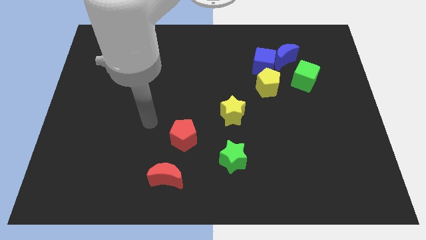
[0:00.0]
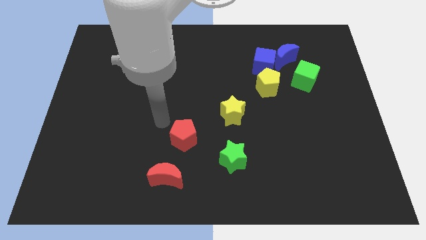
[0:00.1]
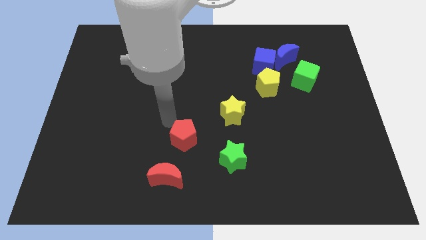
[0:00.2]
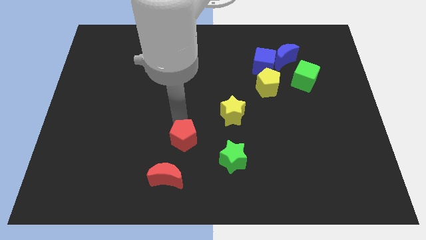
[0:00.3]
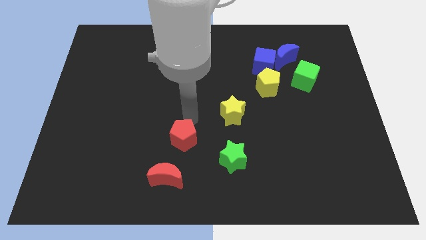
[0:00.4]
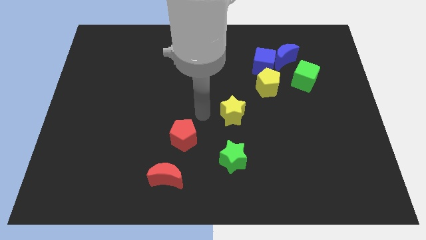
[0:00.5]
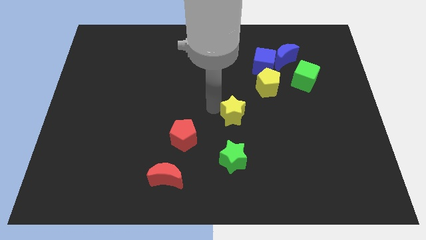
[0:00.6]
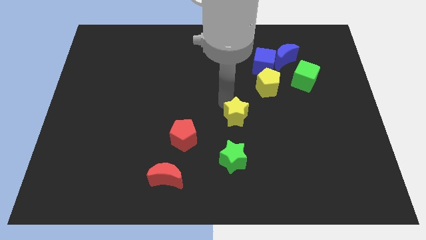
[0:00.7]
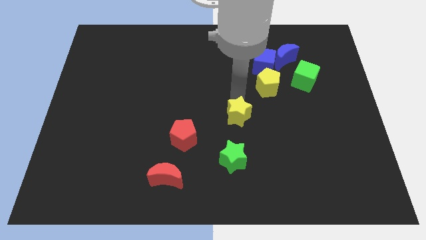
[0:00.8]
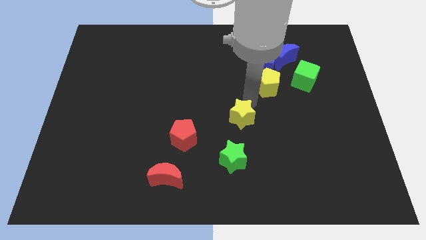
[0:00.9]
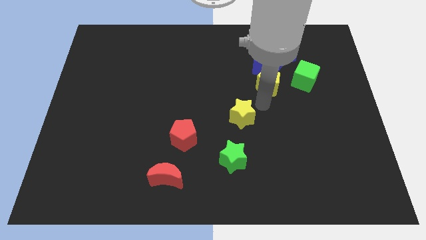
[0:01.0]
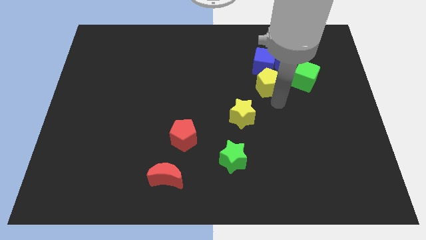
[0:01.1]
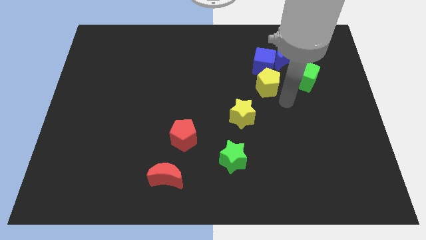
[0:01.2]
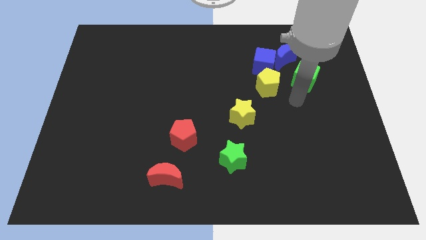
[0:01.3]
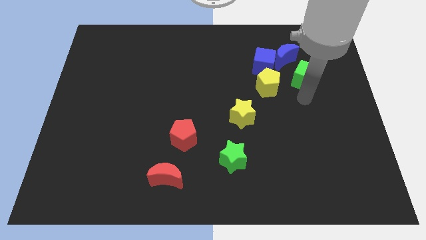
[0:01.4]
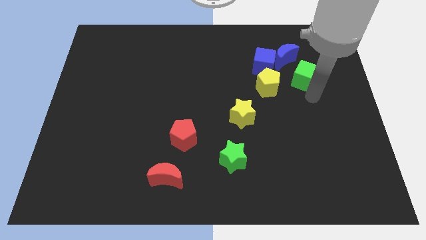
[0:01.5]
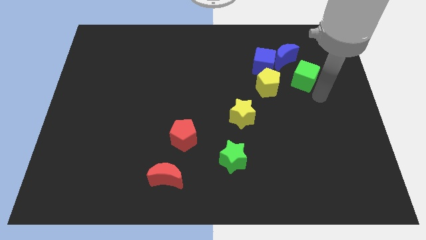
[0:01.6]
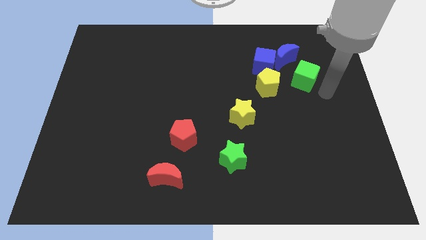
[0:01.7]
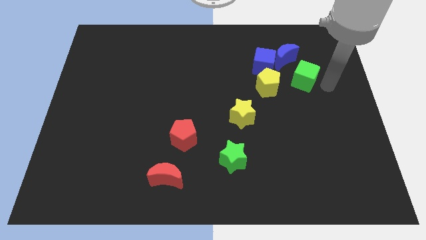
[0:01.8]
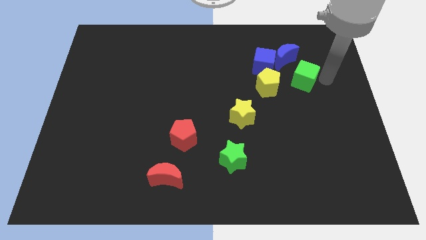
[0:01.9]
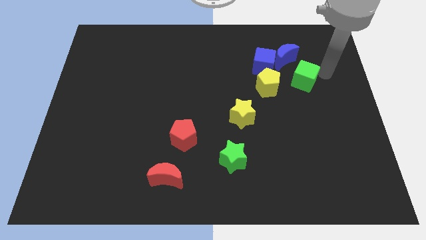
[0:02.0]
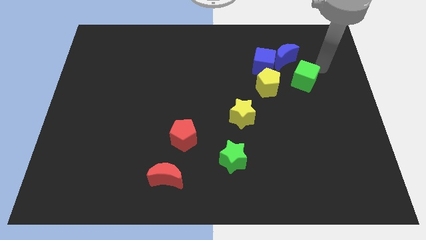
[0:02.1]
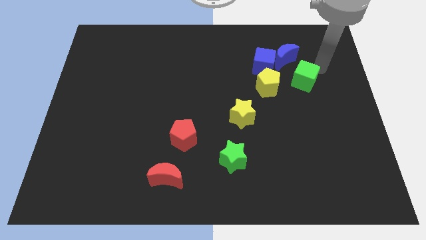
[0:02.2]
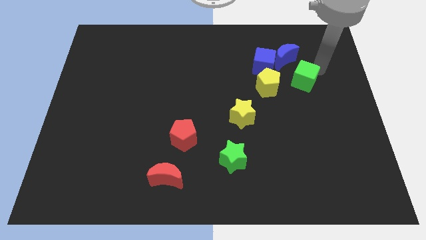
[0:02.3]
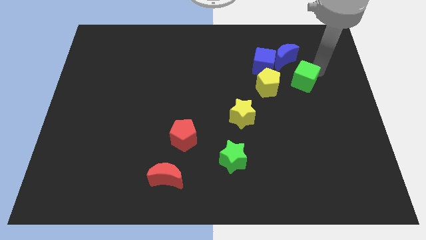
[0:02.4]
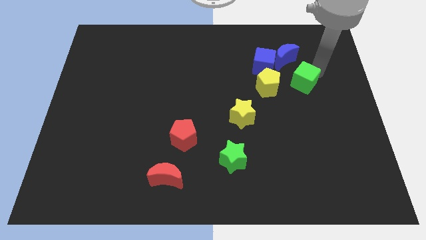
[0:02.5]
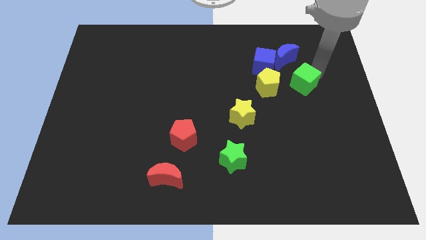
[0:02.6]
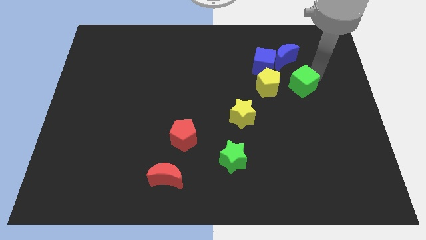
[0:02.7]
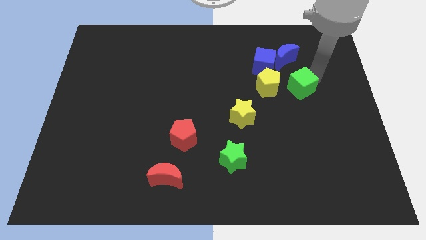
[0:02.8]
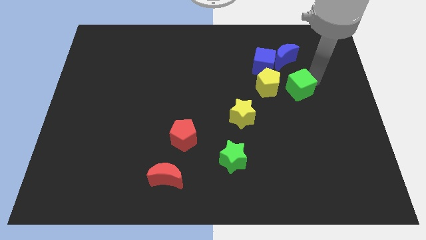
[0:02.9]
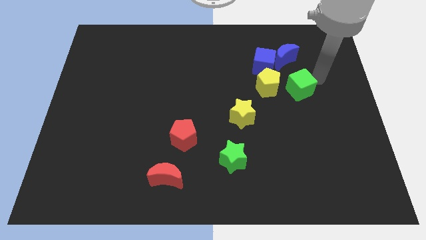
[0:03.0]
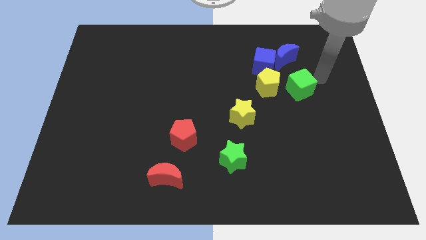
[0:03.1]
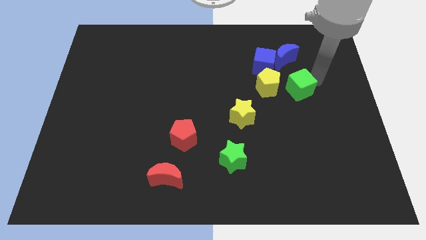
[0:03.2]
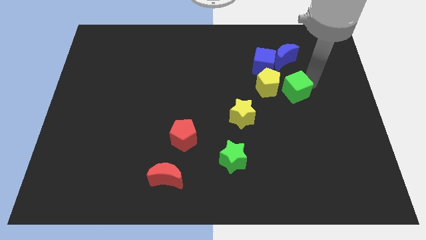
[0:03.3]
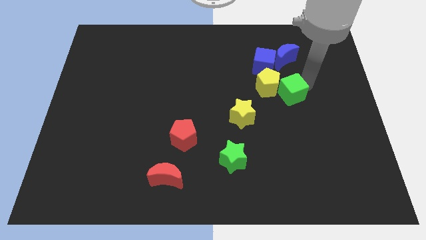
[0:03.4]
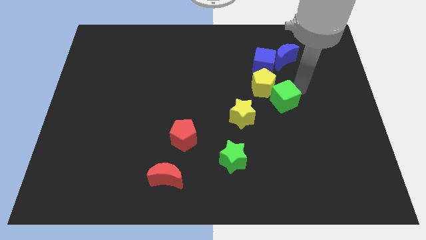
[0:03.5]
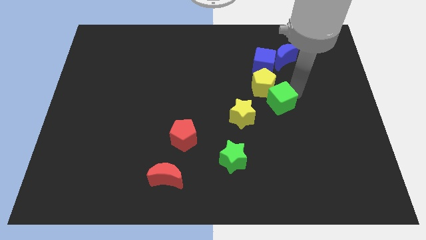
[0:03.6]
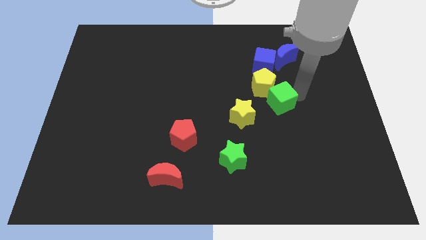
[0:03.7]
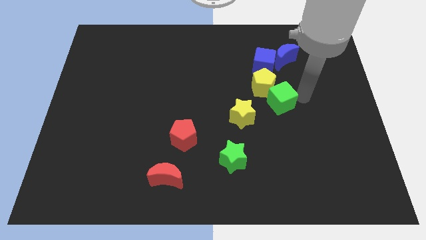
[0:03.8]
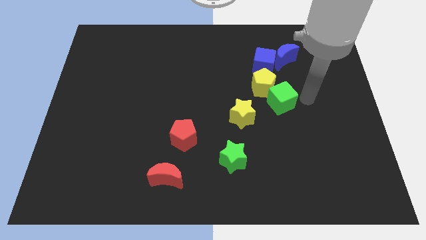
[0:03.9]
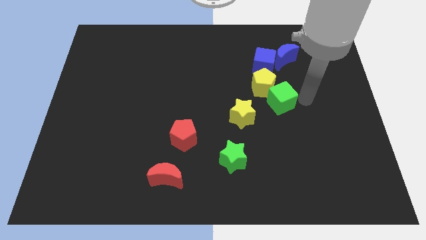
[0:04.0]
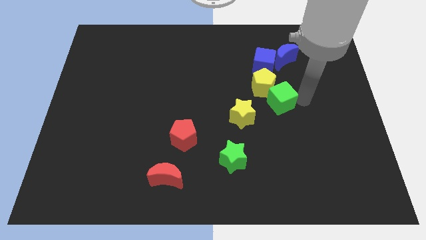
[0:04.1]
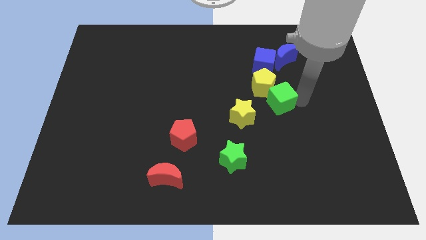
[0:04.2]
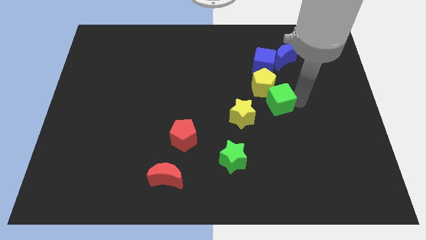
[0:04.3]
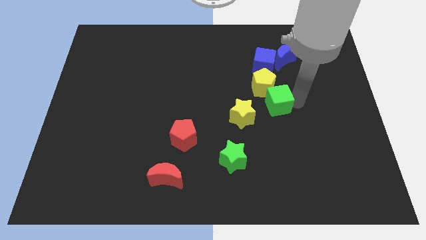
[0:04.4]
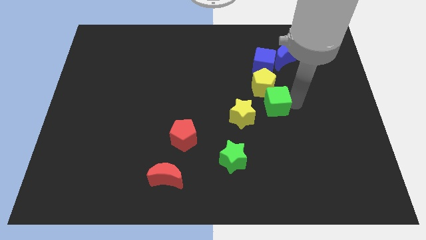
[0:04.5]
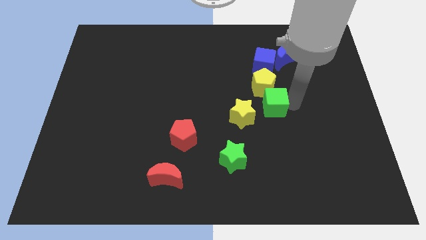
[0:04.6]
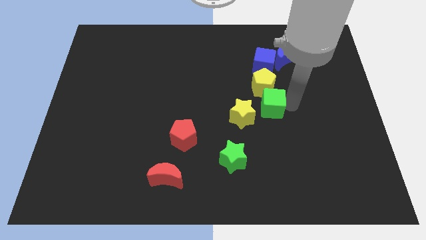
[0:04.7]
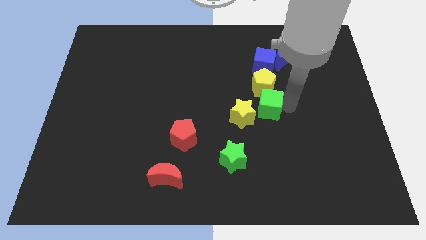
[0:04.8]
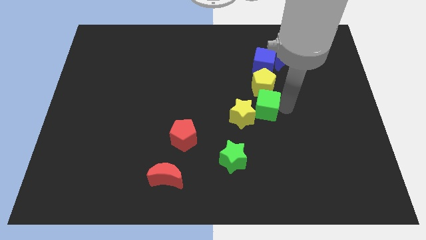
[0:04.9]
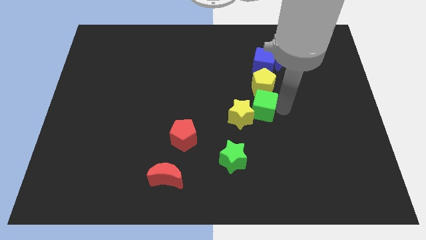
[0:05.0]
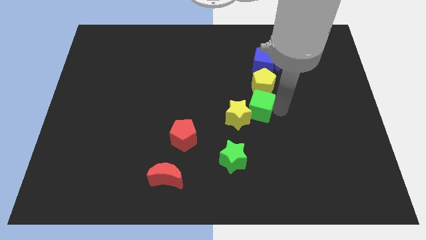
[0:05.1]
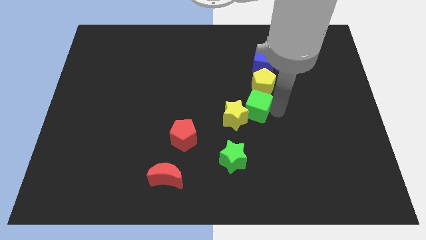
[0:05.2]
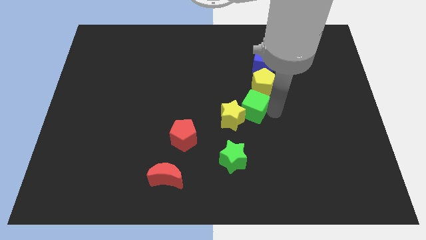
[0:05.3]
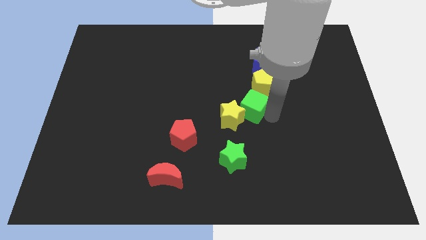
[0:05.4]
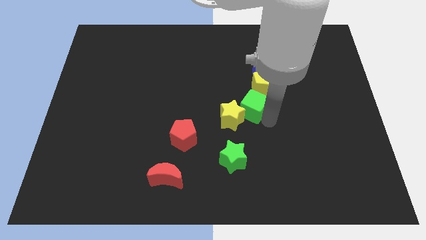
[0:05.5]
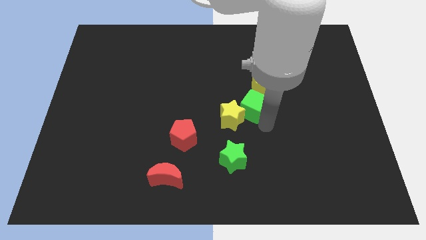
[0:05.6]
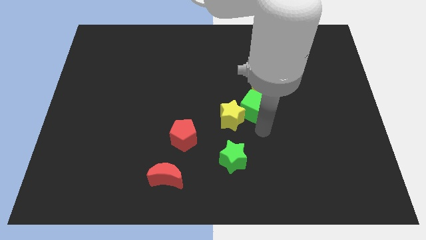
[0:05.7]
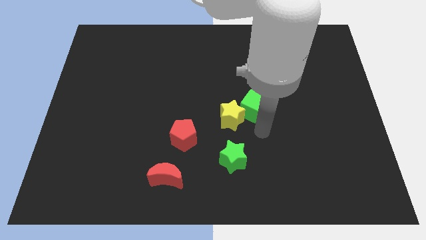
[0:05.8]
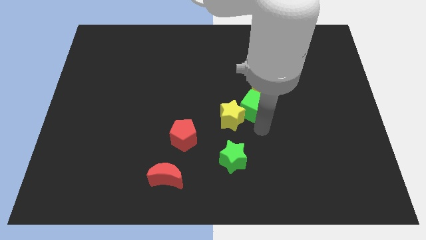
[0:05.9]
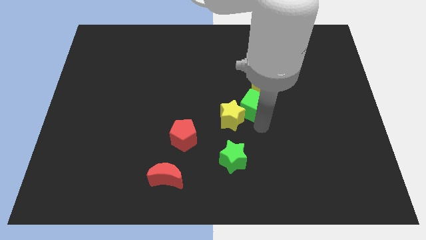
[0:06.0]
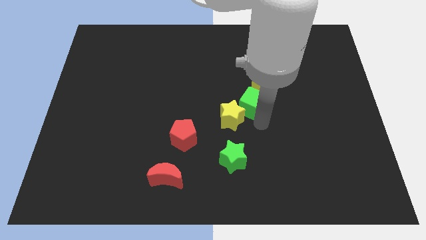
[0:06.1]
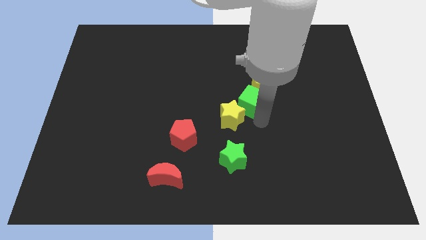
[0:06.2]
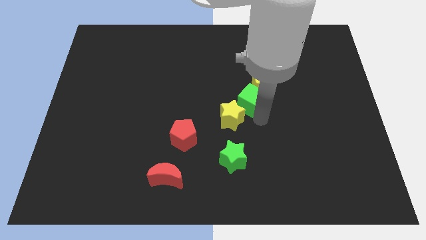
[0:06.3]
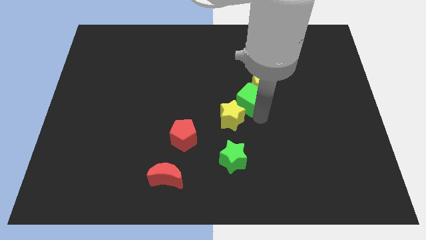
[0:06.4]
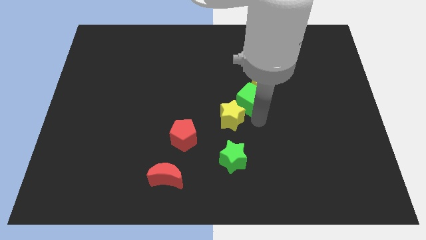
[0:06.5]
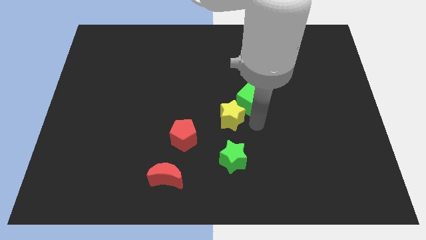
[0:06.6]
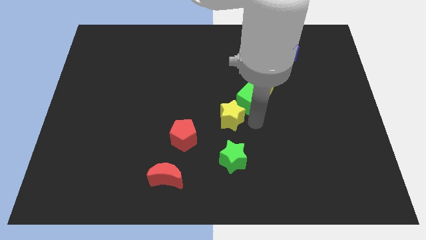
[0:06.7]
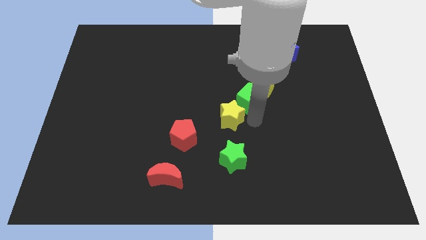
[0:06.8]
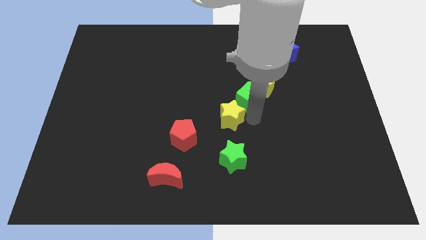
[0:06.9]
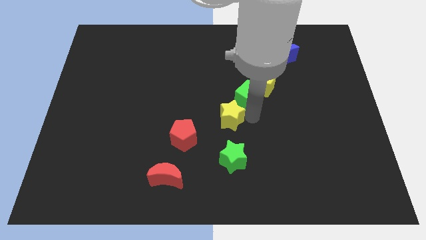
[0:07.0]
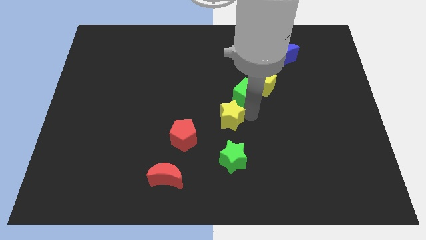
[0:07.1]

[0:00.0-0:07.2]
slide the green cube to the bottom left of the blue cube
